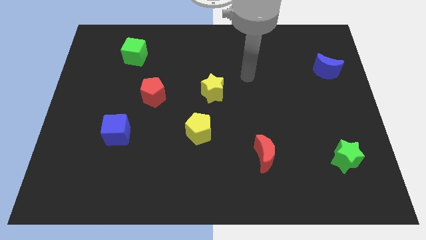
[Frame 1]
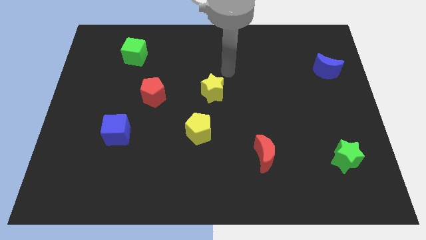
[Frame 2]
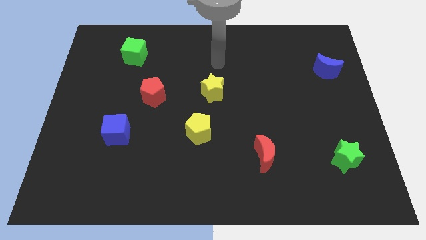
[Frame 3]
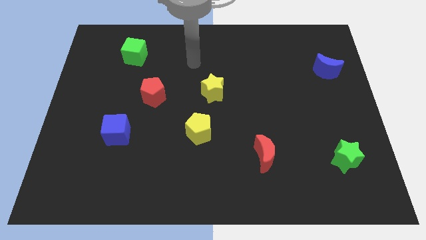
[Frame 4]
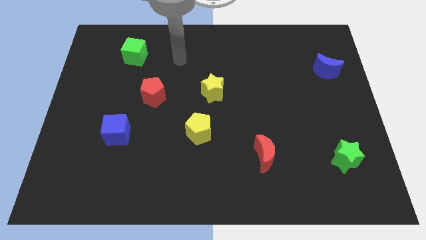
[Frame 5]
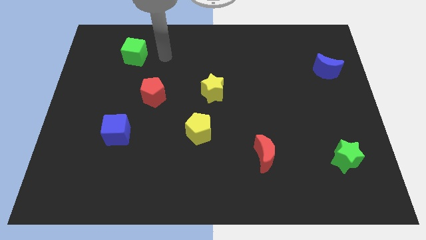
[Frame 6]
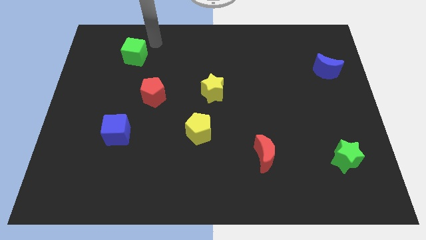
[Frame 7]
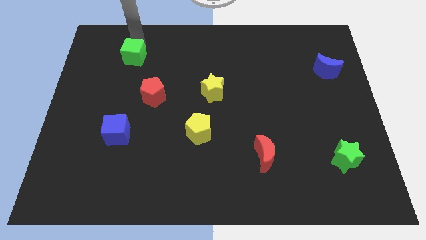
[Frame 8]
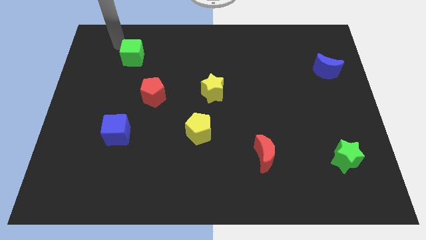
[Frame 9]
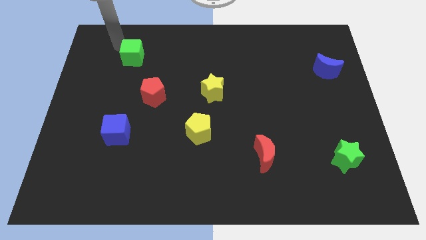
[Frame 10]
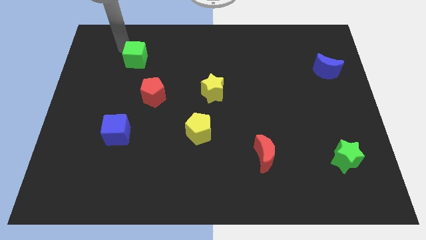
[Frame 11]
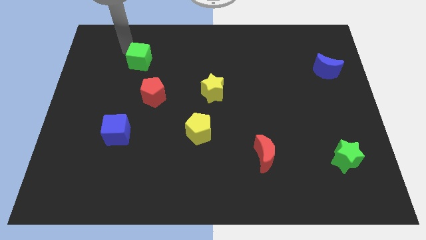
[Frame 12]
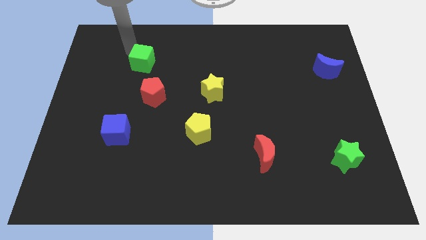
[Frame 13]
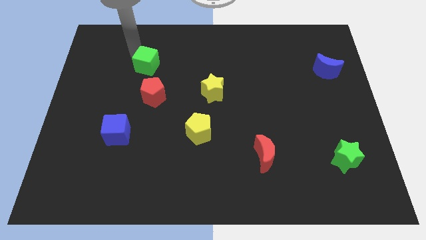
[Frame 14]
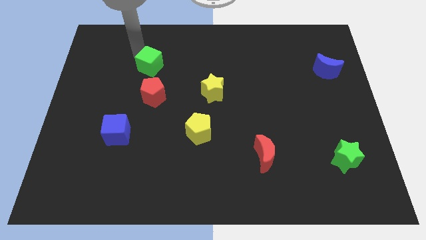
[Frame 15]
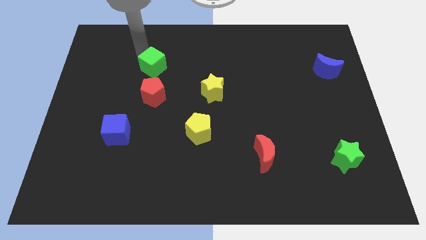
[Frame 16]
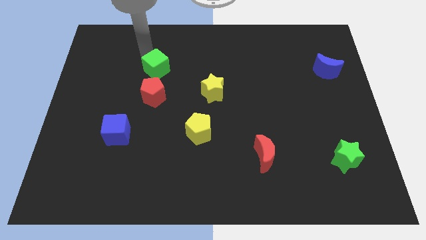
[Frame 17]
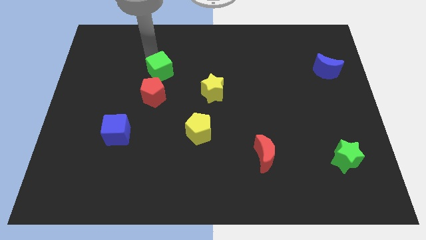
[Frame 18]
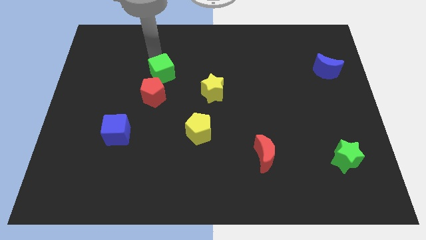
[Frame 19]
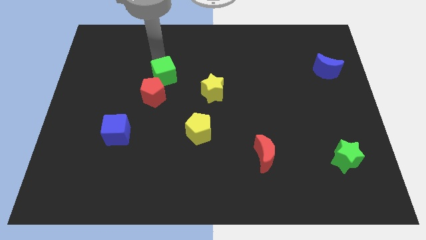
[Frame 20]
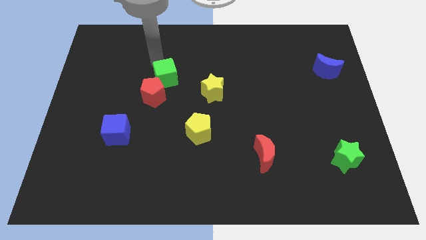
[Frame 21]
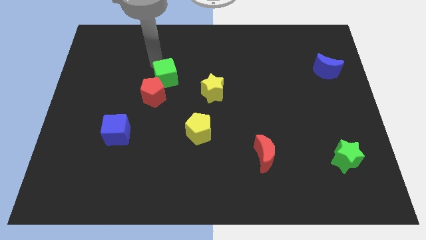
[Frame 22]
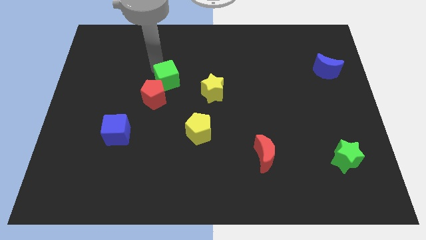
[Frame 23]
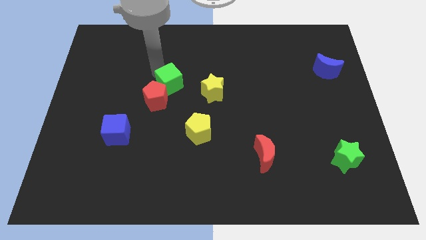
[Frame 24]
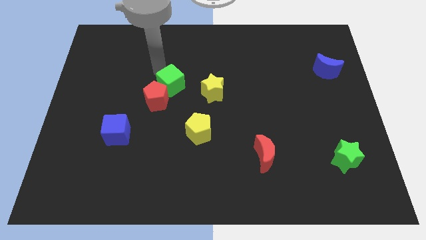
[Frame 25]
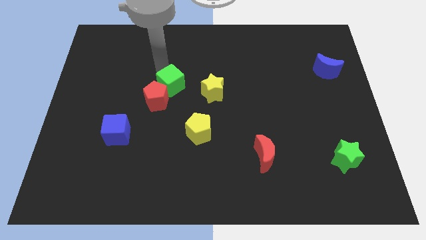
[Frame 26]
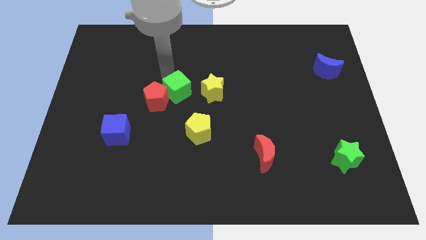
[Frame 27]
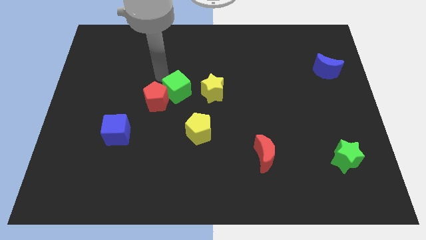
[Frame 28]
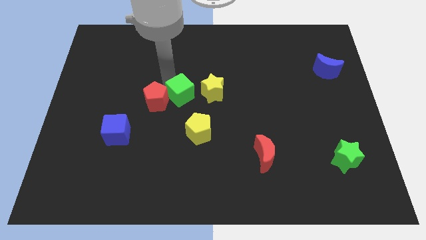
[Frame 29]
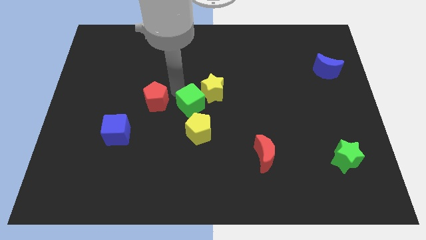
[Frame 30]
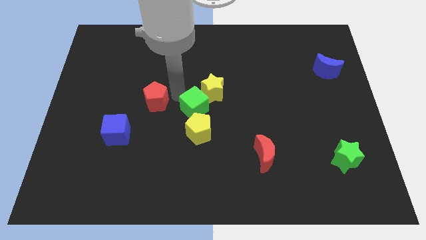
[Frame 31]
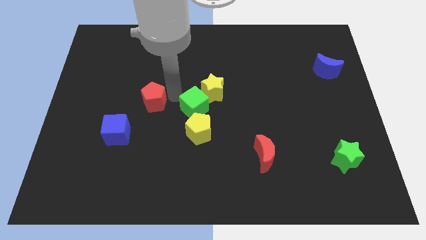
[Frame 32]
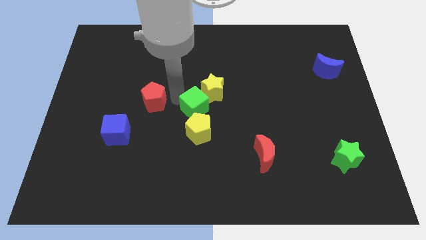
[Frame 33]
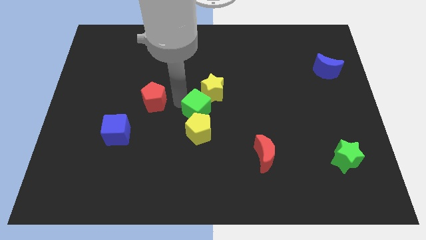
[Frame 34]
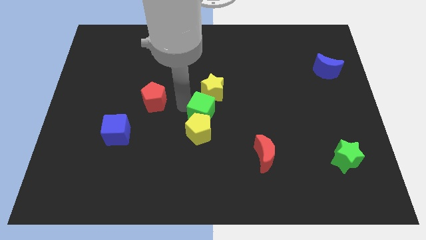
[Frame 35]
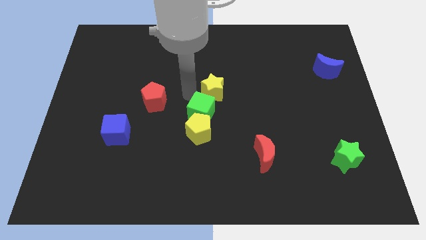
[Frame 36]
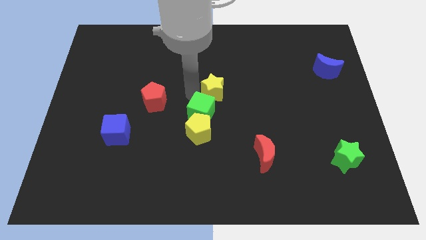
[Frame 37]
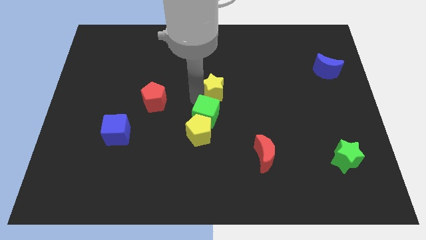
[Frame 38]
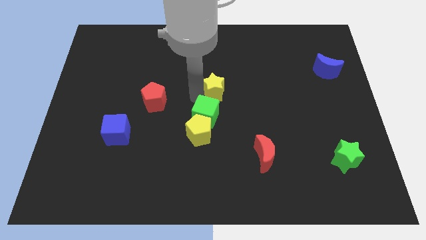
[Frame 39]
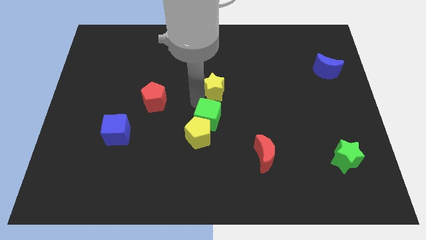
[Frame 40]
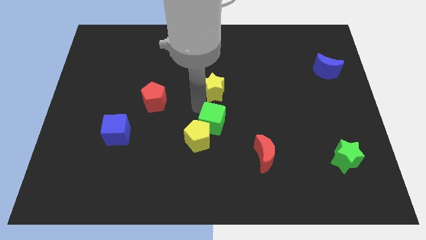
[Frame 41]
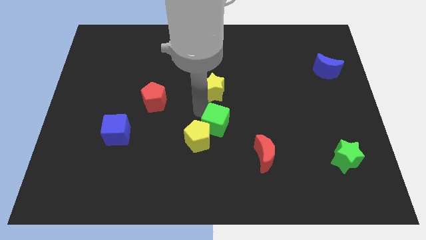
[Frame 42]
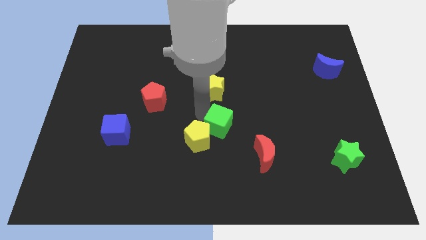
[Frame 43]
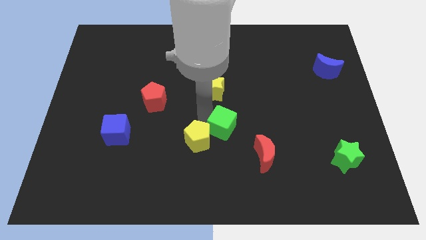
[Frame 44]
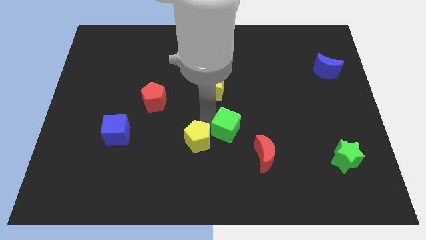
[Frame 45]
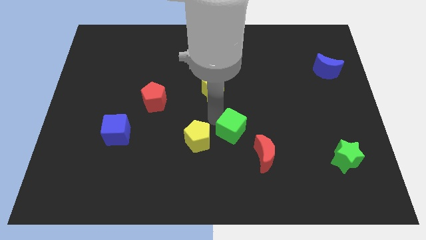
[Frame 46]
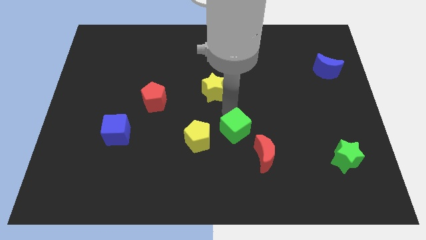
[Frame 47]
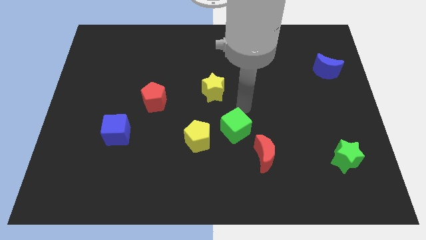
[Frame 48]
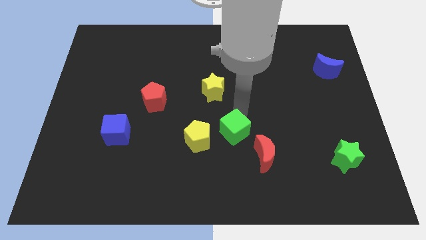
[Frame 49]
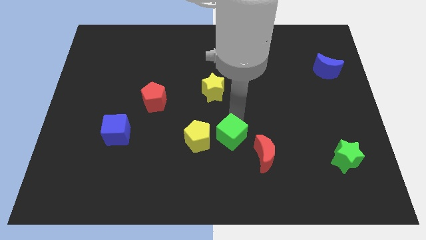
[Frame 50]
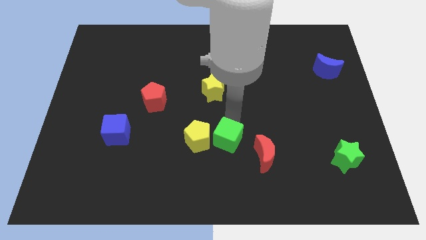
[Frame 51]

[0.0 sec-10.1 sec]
push the green cube to the bottom right of the yellow pentagon

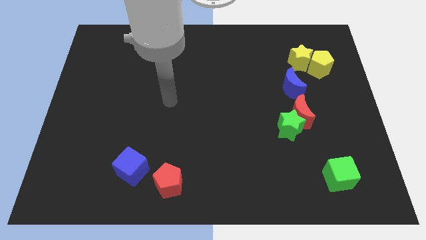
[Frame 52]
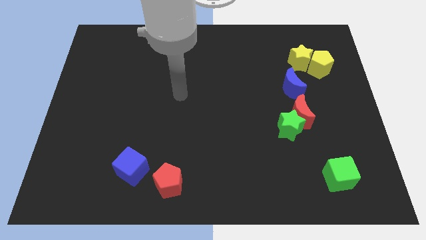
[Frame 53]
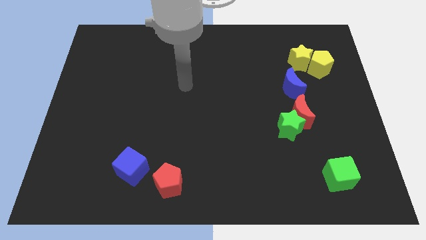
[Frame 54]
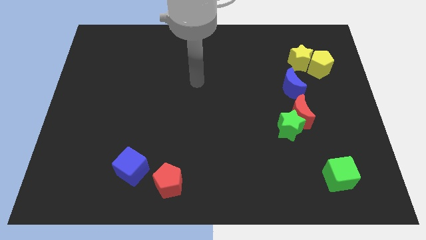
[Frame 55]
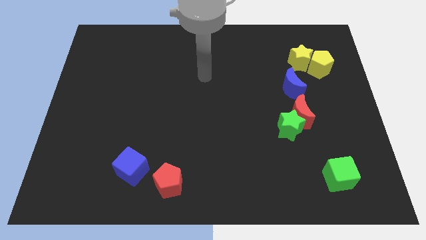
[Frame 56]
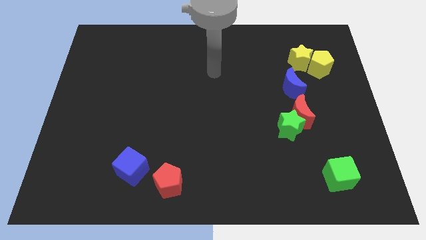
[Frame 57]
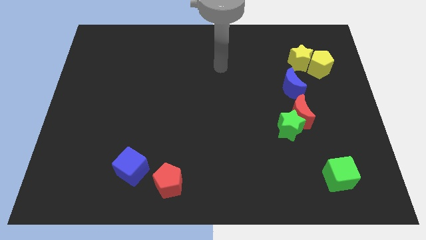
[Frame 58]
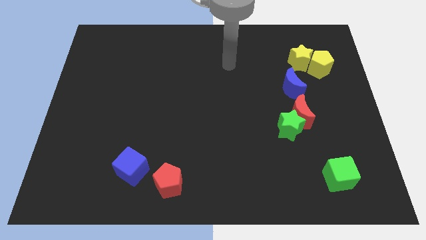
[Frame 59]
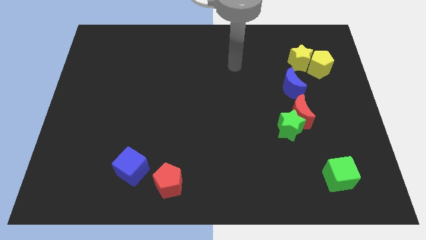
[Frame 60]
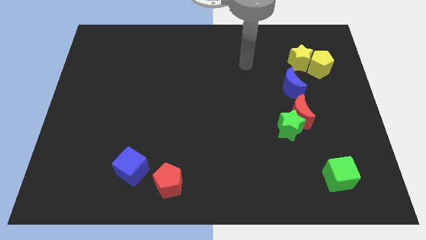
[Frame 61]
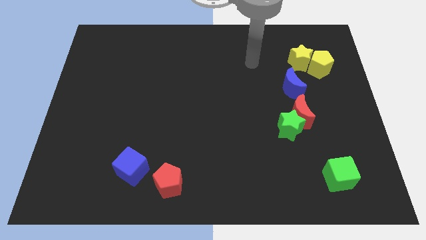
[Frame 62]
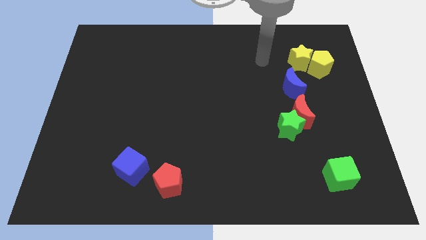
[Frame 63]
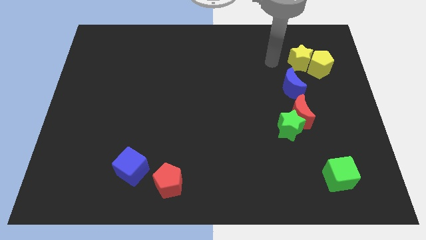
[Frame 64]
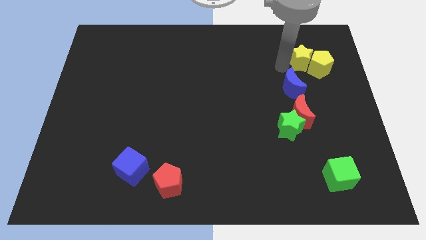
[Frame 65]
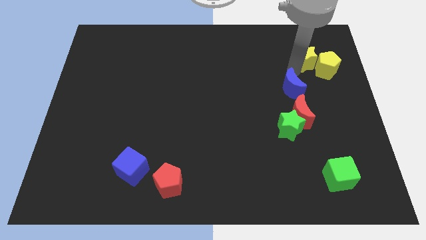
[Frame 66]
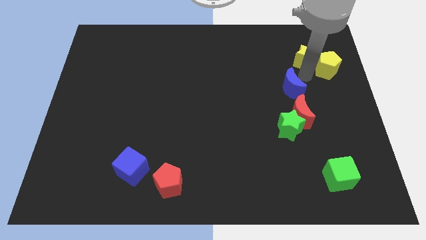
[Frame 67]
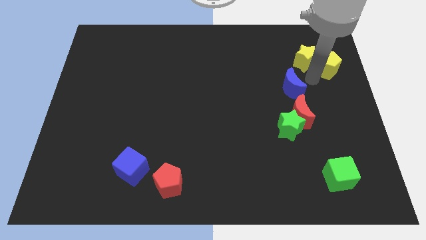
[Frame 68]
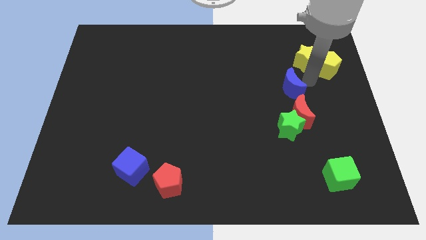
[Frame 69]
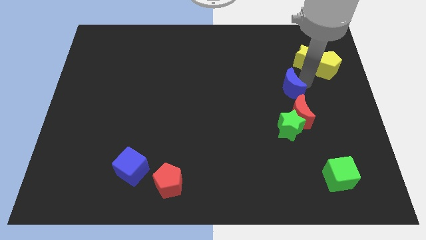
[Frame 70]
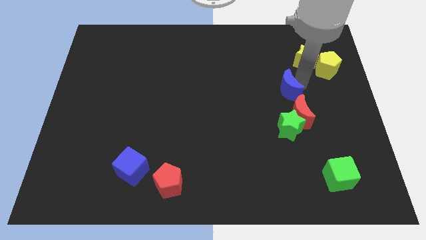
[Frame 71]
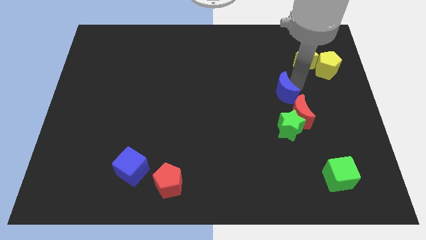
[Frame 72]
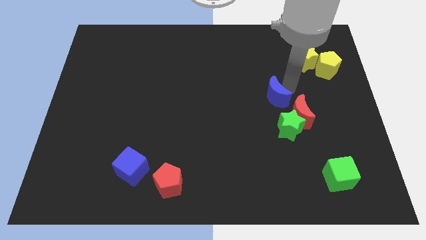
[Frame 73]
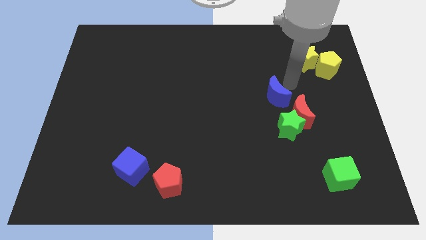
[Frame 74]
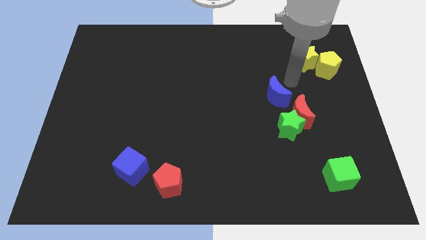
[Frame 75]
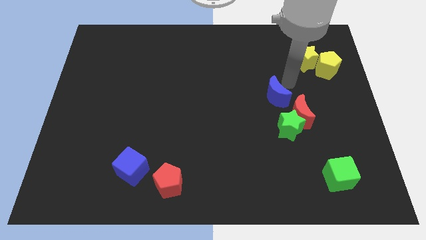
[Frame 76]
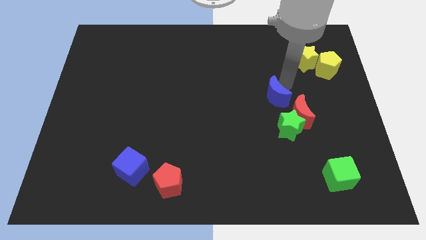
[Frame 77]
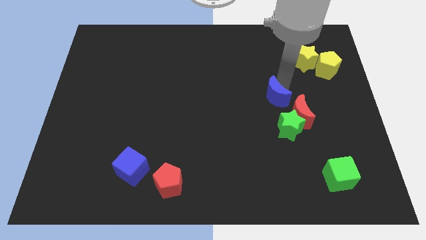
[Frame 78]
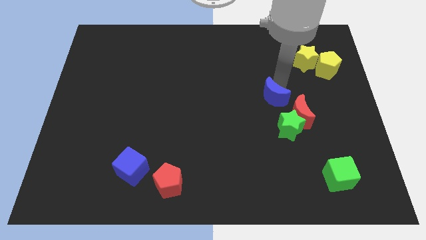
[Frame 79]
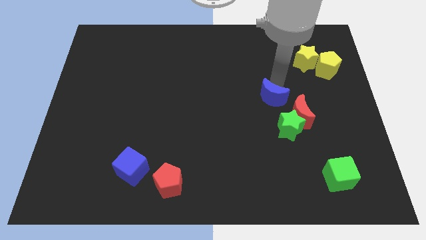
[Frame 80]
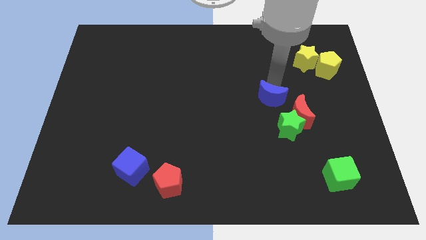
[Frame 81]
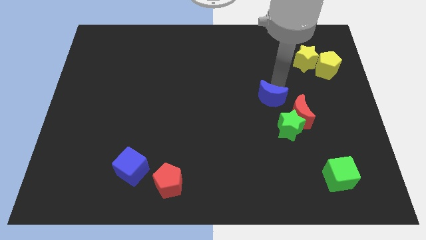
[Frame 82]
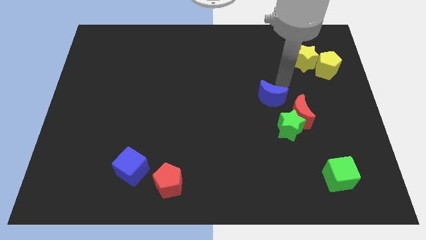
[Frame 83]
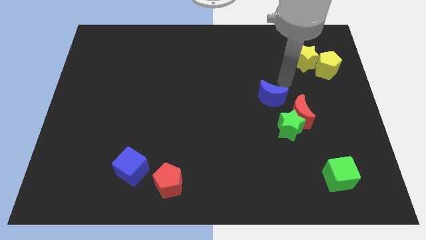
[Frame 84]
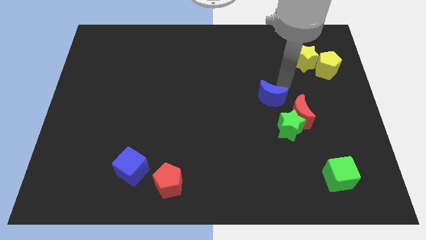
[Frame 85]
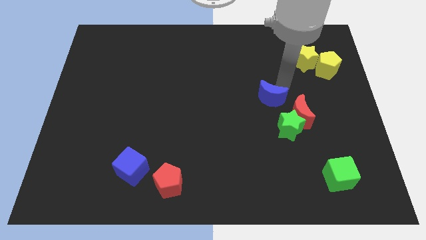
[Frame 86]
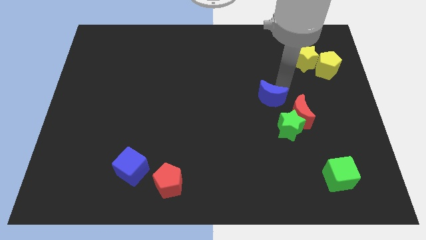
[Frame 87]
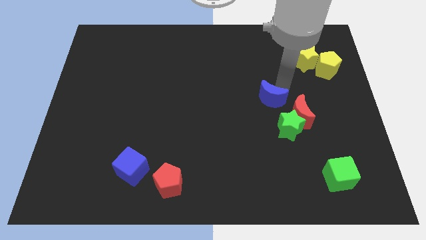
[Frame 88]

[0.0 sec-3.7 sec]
push the blue moon to the left of the red moon
